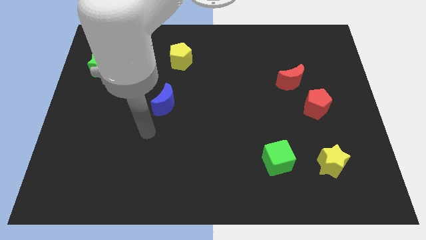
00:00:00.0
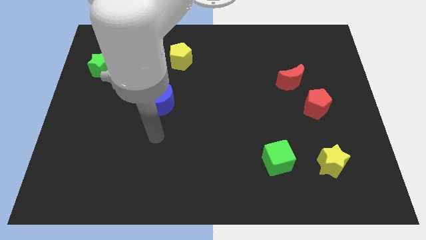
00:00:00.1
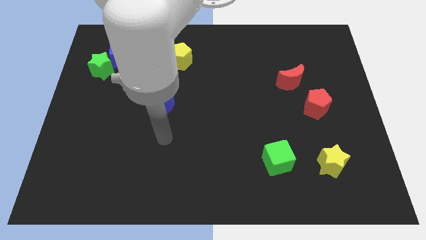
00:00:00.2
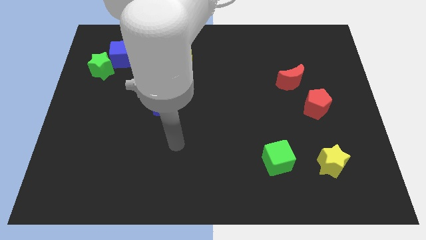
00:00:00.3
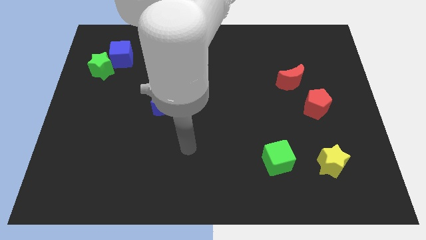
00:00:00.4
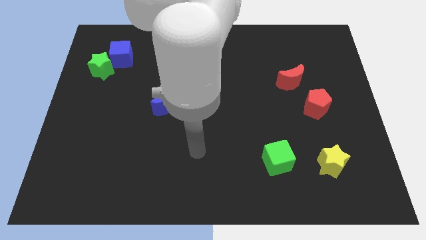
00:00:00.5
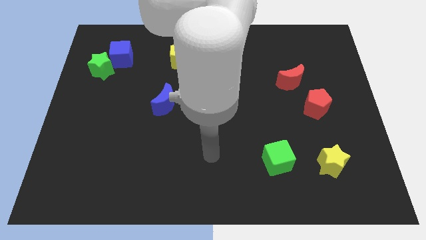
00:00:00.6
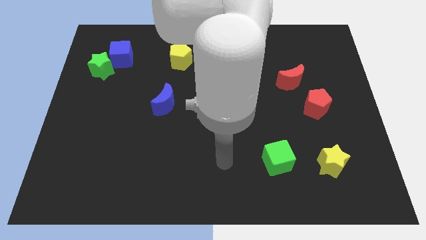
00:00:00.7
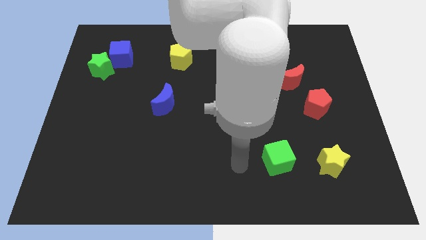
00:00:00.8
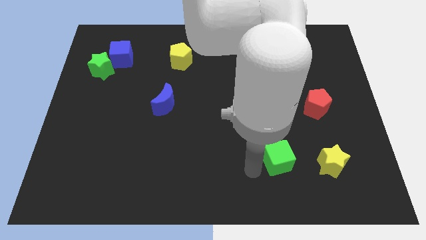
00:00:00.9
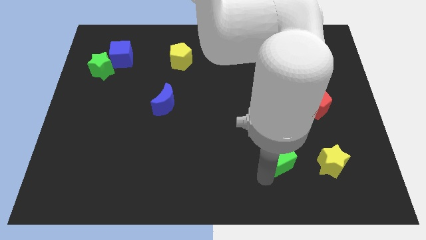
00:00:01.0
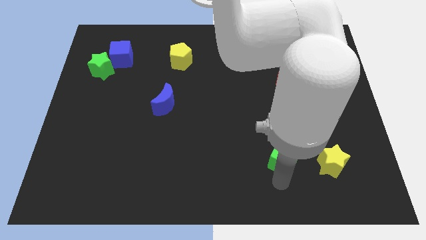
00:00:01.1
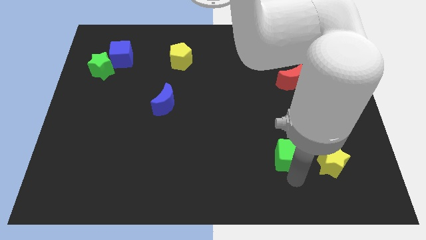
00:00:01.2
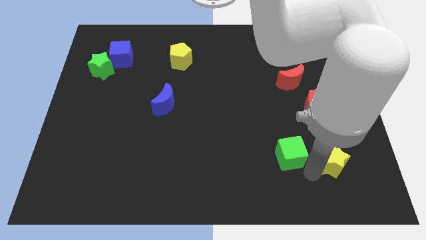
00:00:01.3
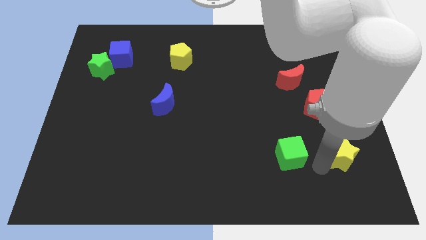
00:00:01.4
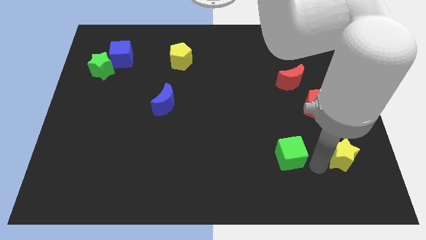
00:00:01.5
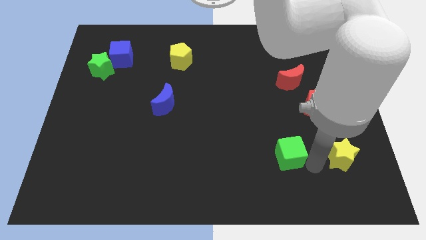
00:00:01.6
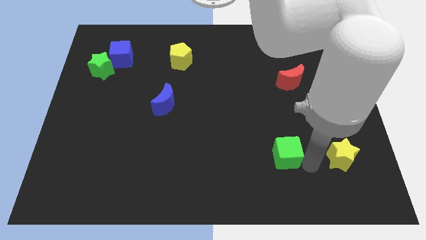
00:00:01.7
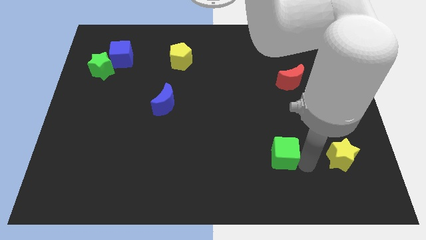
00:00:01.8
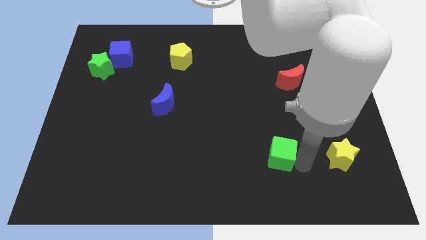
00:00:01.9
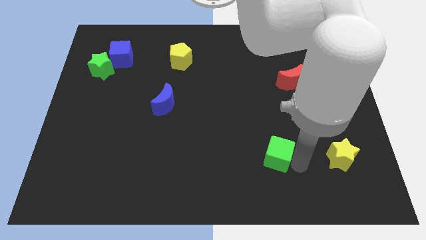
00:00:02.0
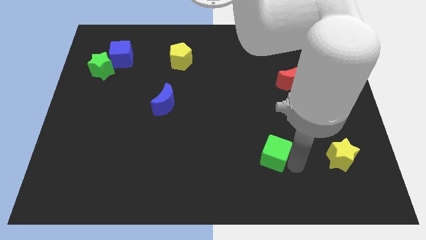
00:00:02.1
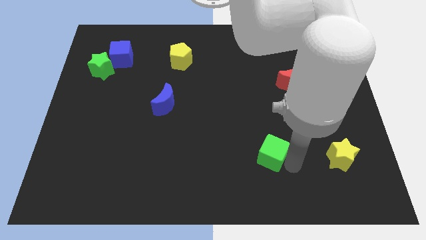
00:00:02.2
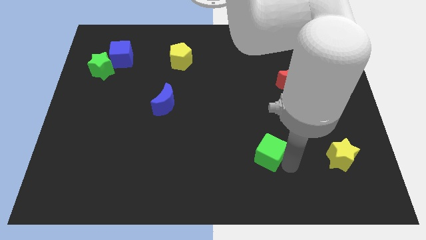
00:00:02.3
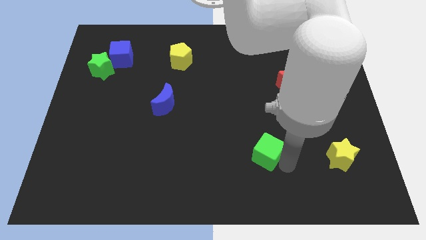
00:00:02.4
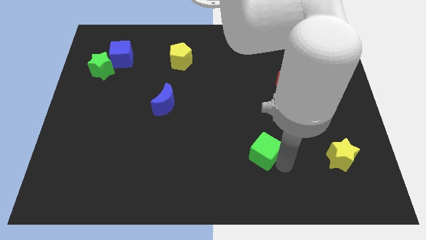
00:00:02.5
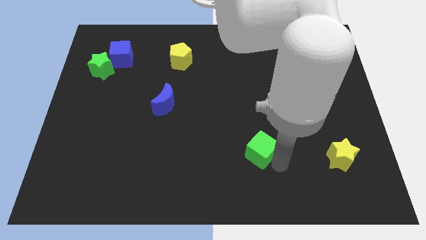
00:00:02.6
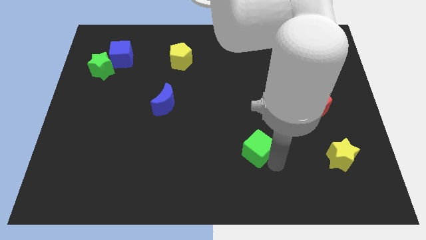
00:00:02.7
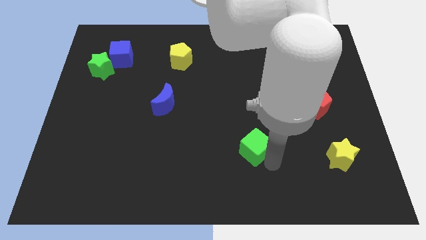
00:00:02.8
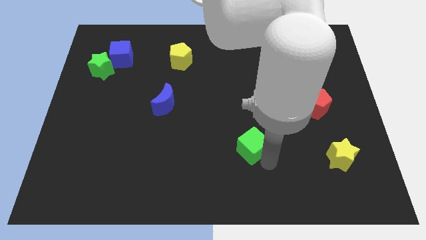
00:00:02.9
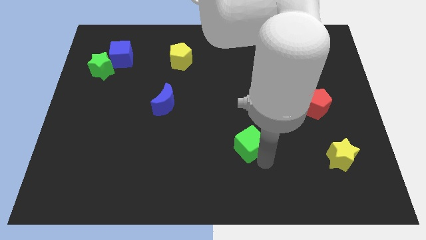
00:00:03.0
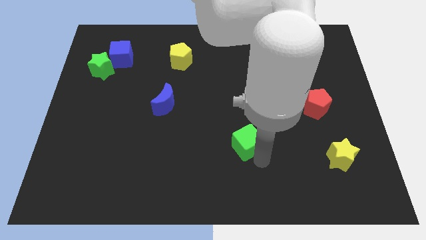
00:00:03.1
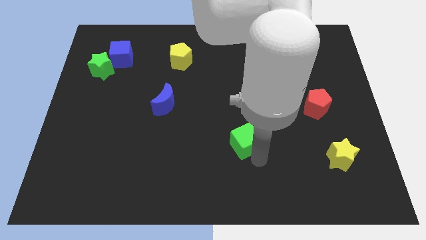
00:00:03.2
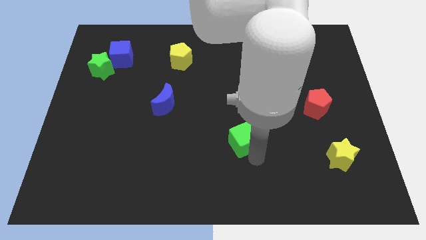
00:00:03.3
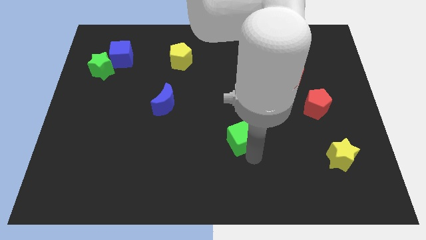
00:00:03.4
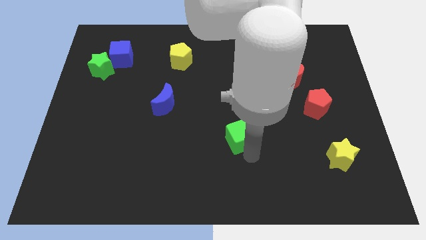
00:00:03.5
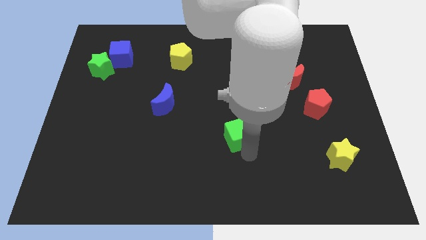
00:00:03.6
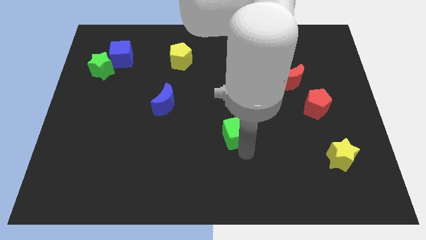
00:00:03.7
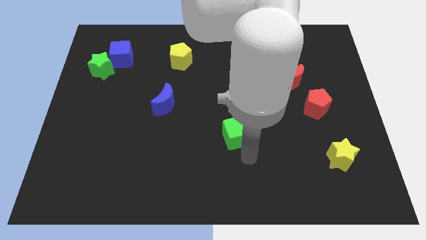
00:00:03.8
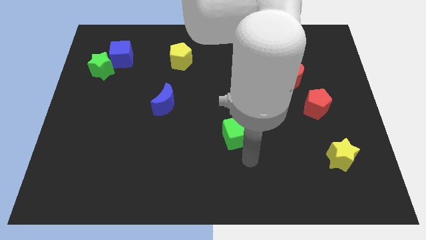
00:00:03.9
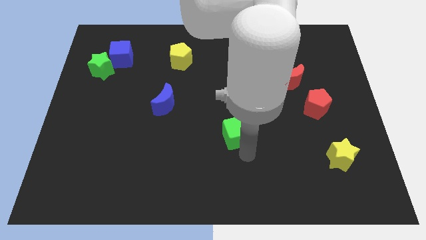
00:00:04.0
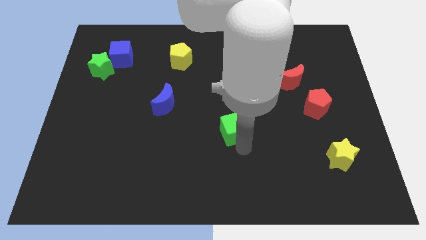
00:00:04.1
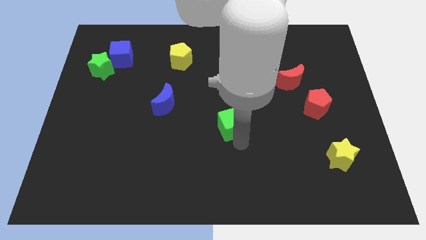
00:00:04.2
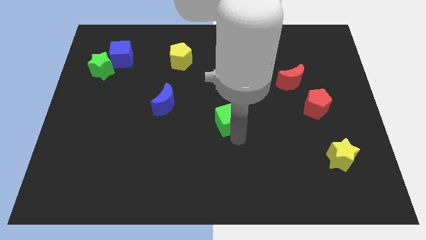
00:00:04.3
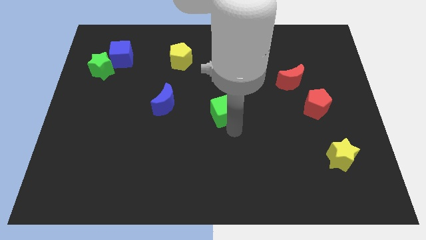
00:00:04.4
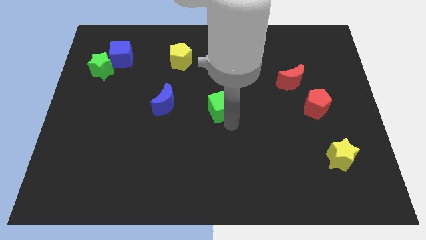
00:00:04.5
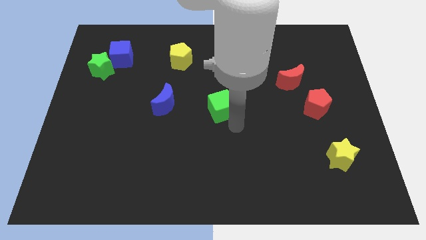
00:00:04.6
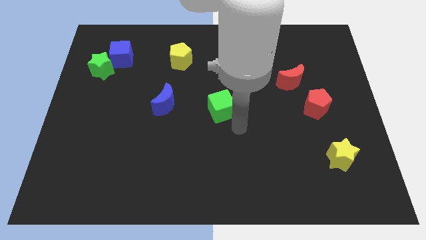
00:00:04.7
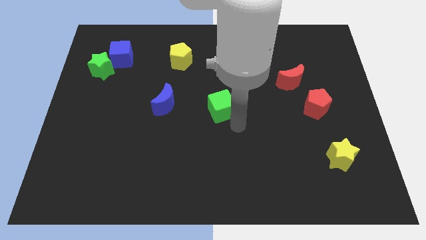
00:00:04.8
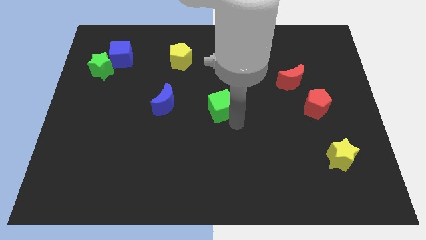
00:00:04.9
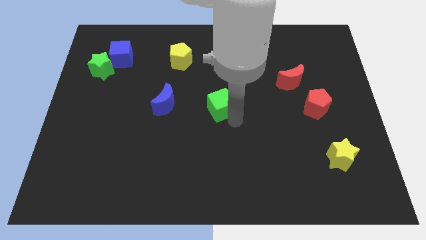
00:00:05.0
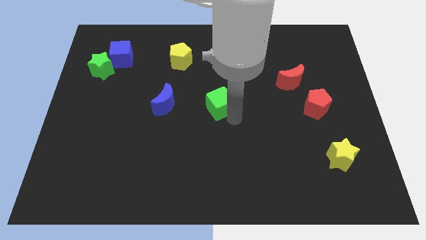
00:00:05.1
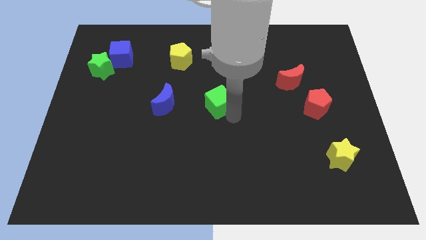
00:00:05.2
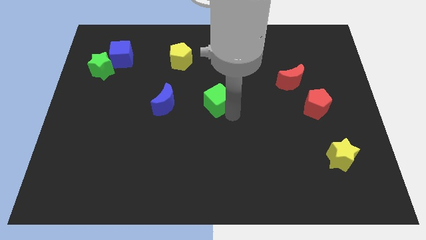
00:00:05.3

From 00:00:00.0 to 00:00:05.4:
slide the green cube diagonally upwards and to the left

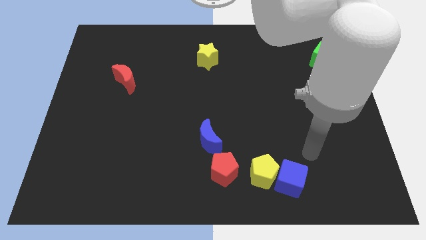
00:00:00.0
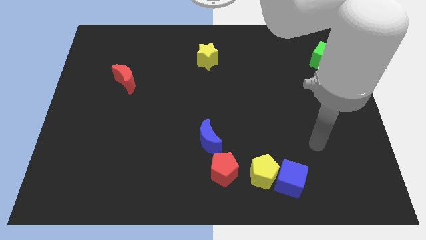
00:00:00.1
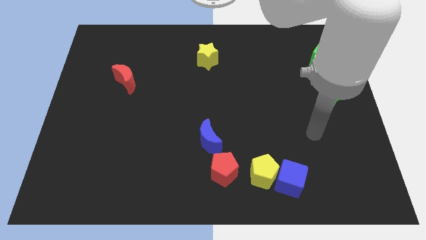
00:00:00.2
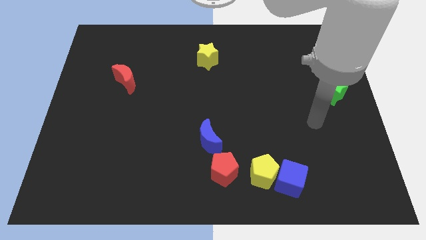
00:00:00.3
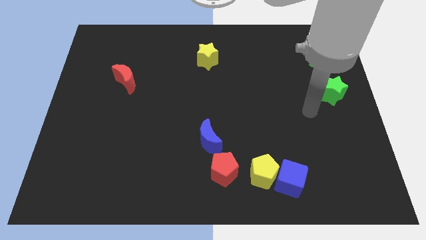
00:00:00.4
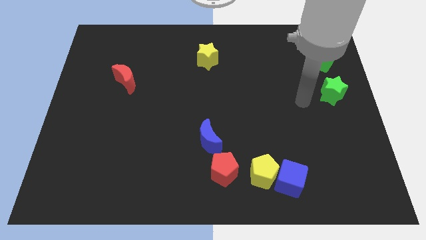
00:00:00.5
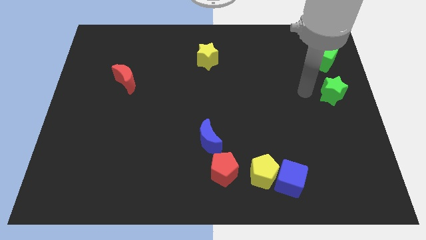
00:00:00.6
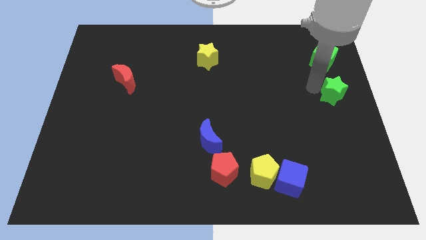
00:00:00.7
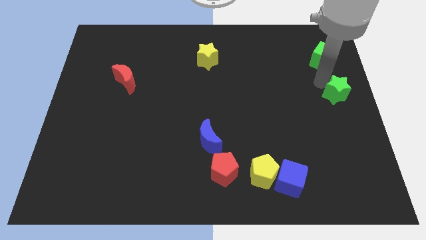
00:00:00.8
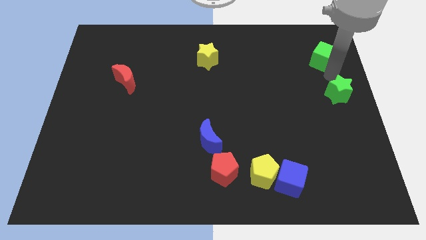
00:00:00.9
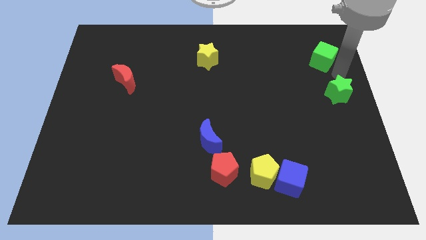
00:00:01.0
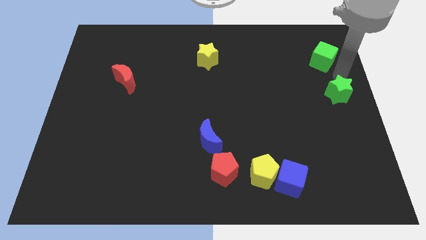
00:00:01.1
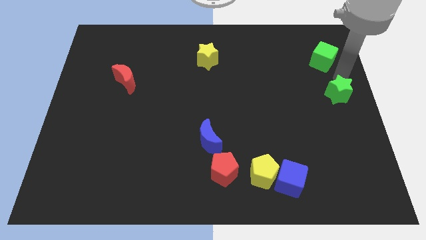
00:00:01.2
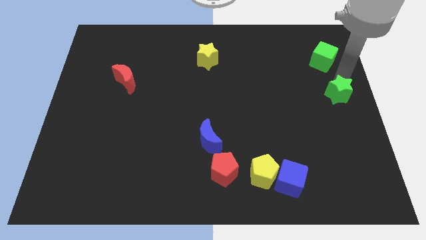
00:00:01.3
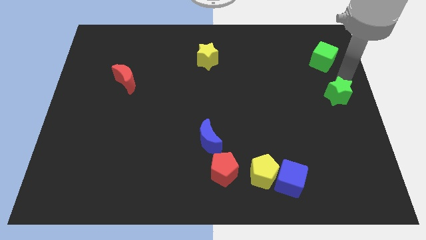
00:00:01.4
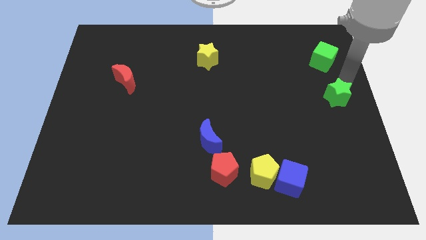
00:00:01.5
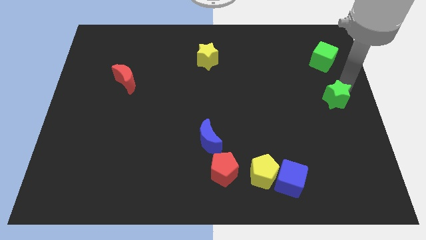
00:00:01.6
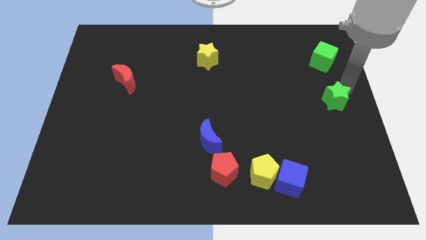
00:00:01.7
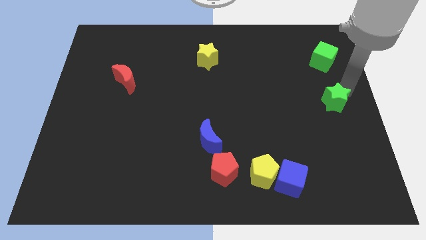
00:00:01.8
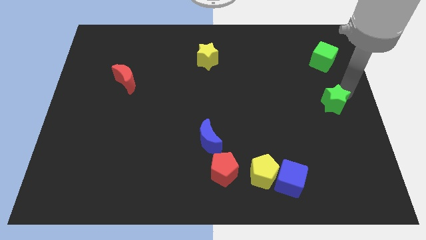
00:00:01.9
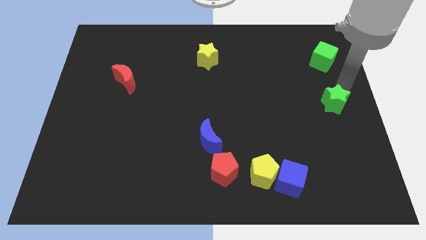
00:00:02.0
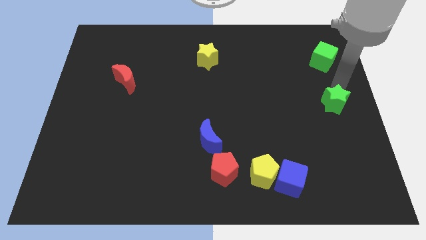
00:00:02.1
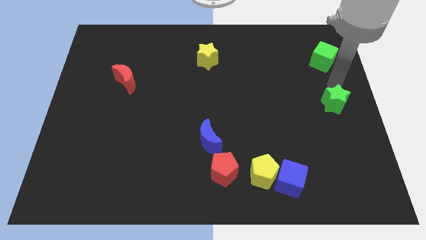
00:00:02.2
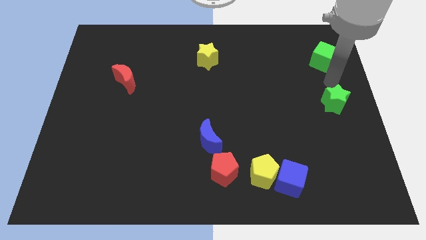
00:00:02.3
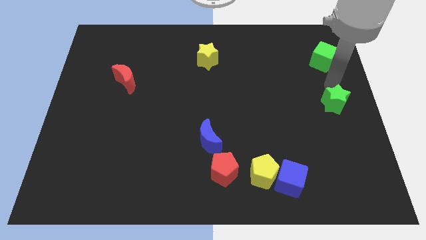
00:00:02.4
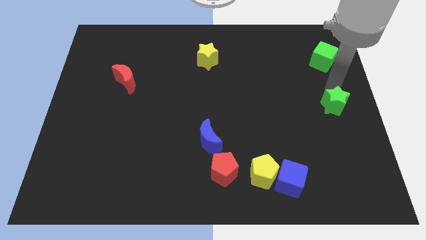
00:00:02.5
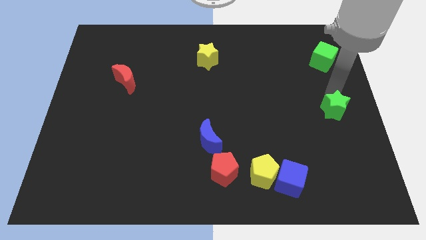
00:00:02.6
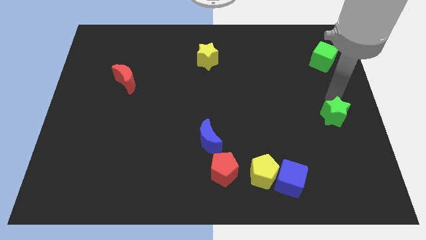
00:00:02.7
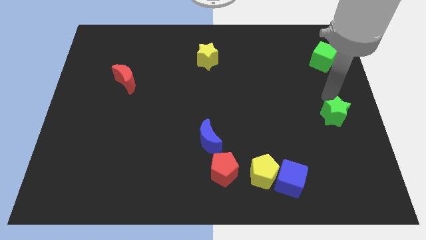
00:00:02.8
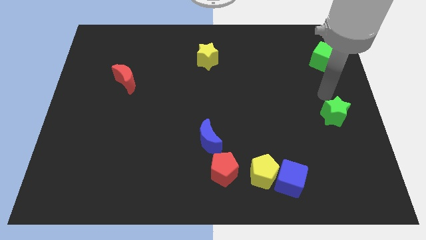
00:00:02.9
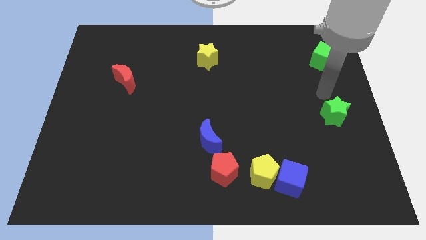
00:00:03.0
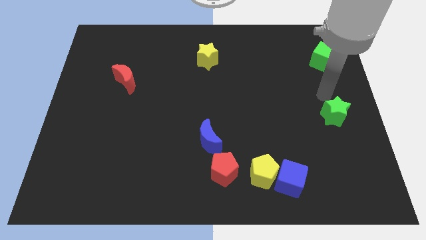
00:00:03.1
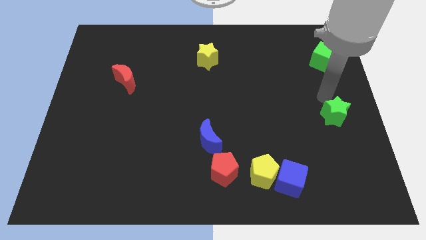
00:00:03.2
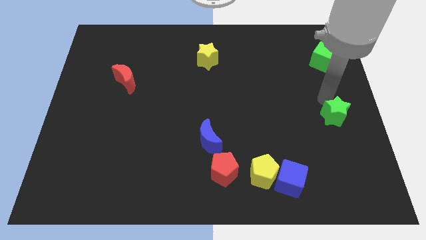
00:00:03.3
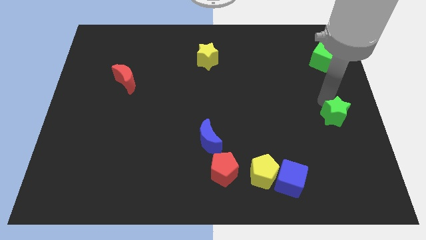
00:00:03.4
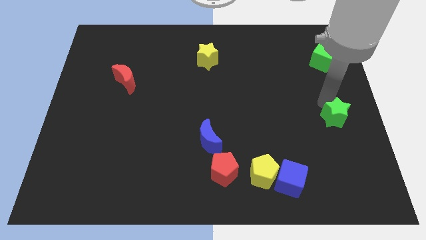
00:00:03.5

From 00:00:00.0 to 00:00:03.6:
slide the green star down a little bit
